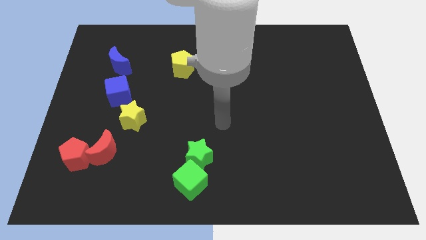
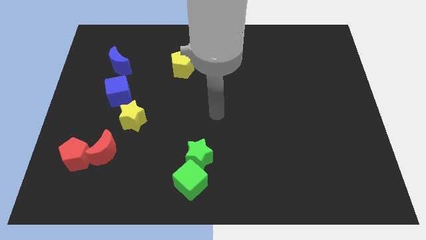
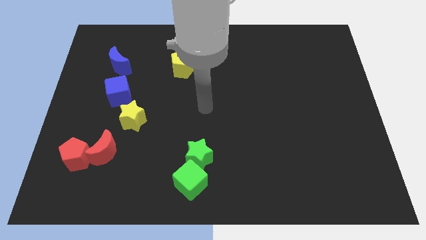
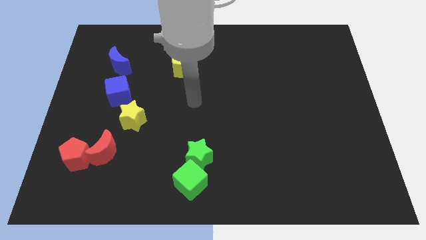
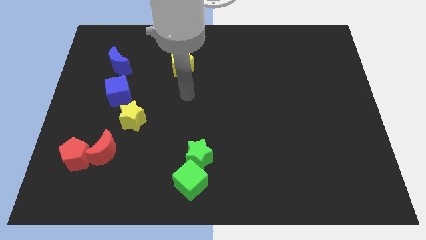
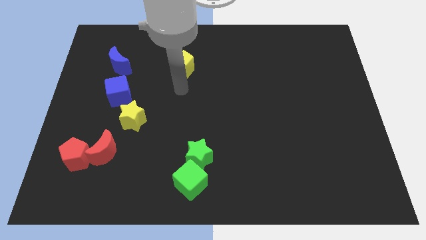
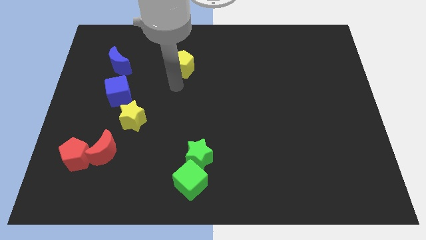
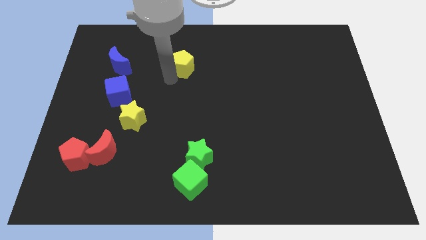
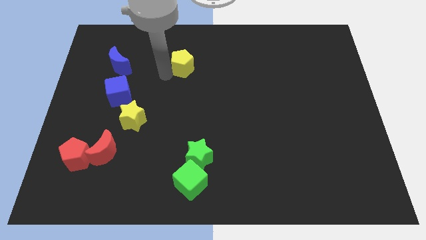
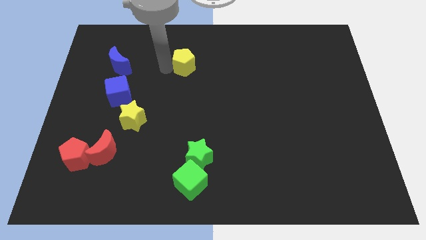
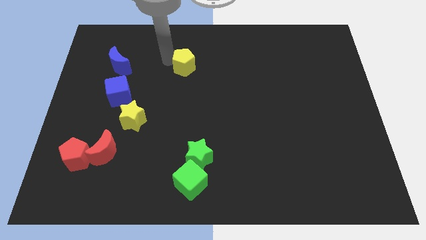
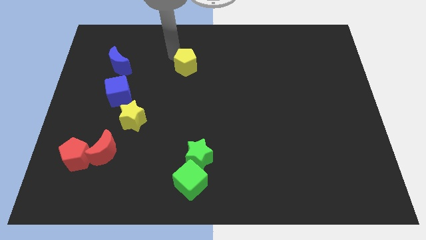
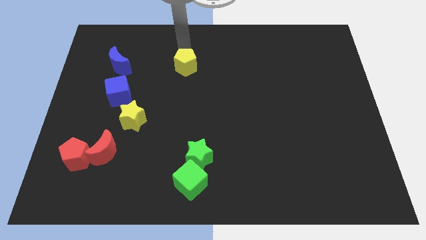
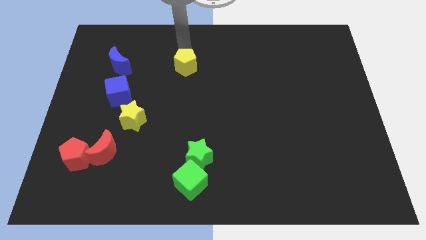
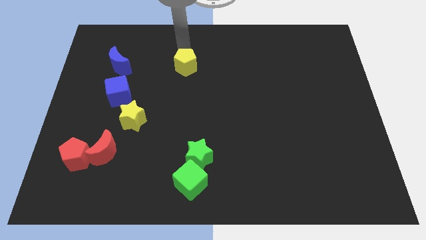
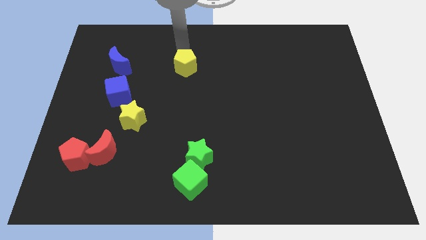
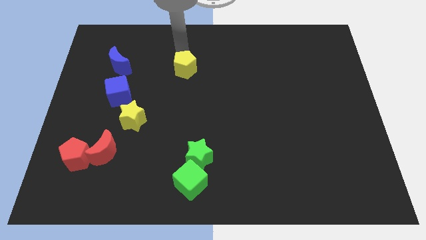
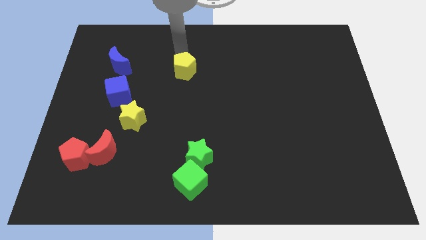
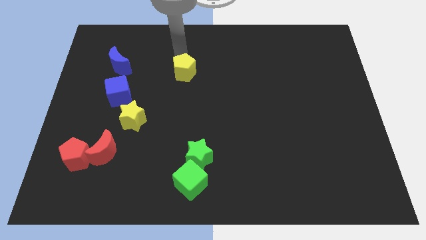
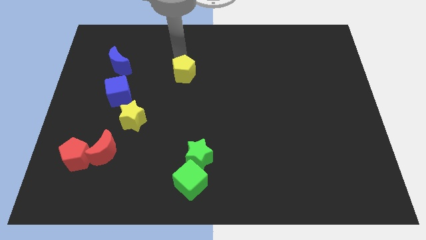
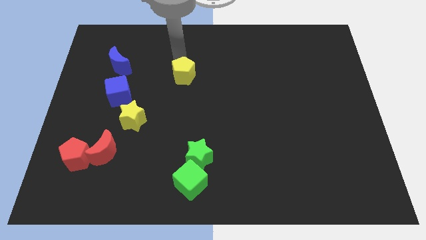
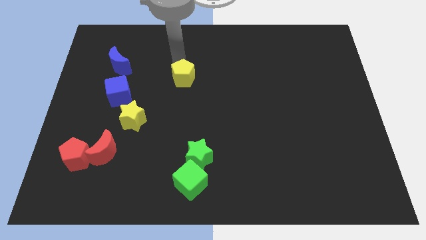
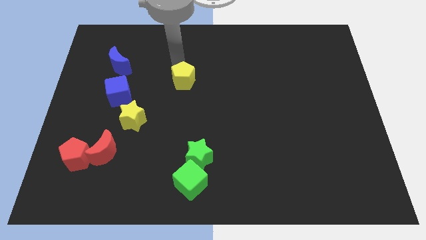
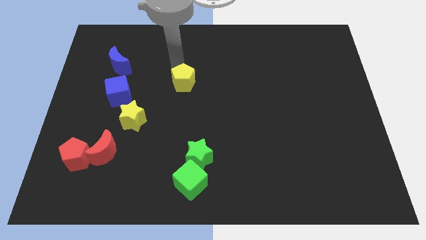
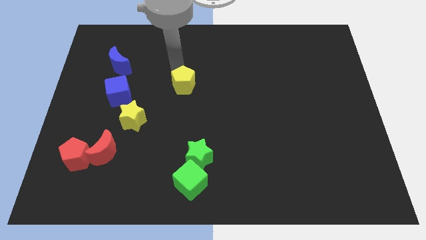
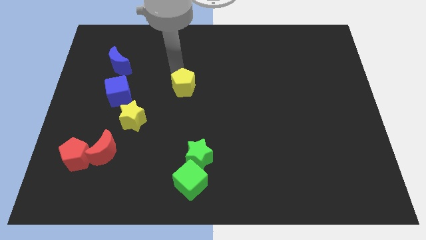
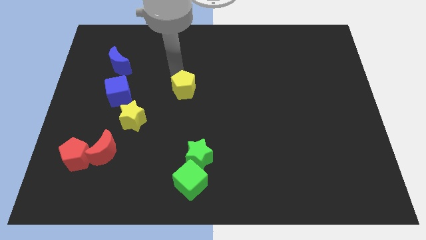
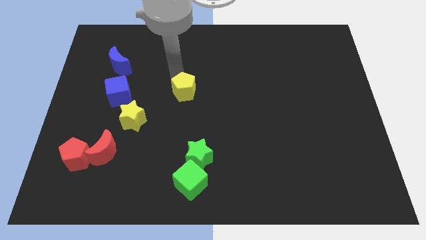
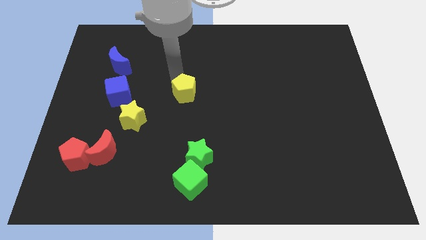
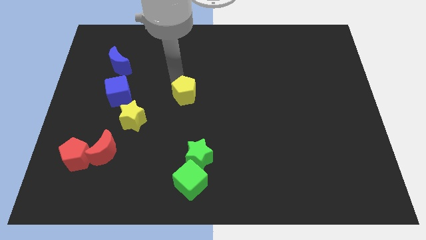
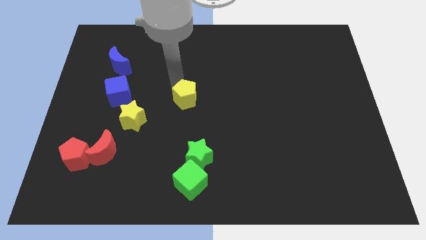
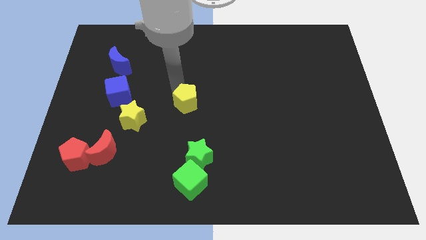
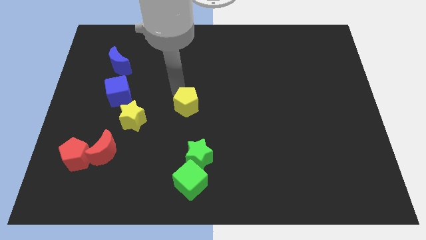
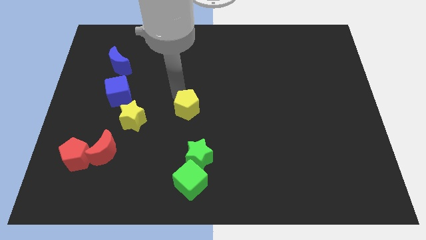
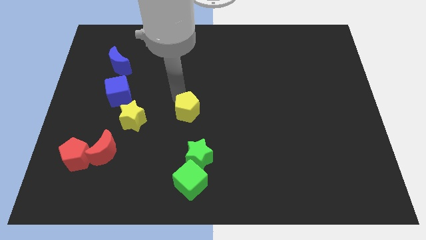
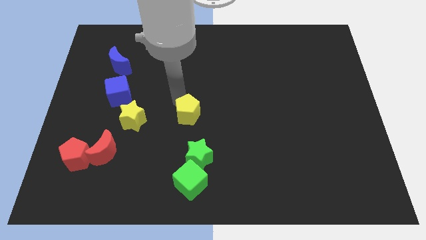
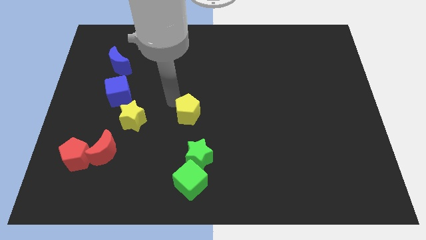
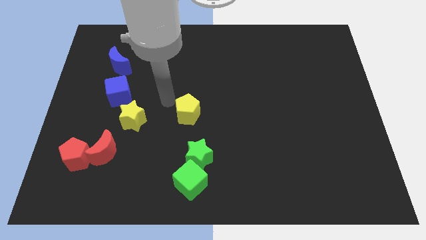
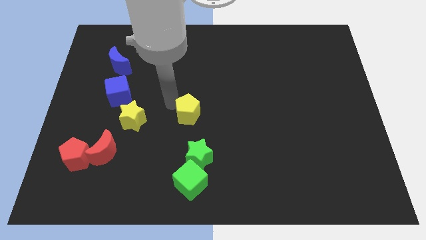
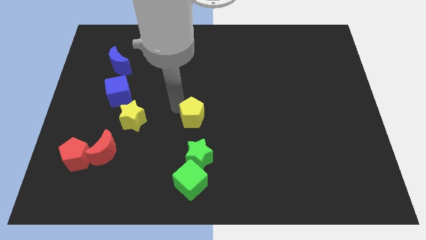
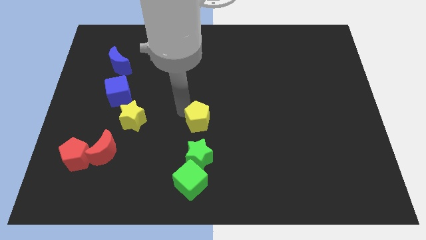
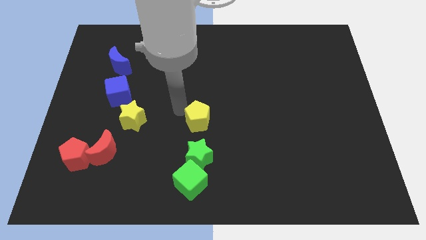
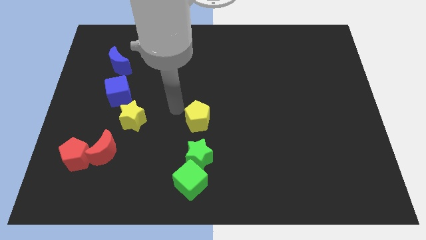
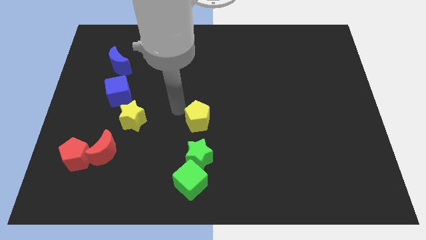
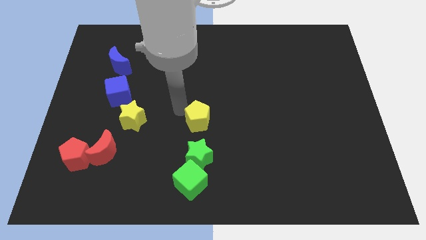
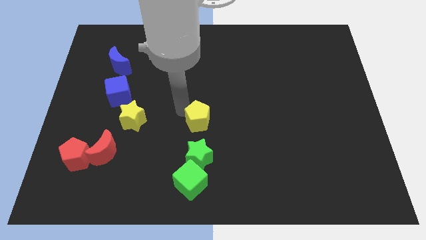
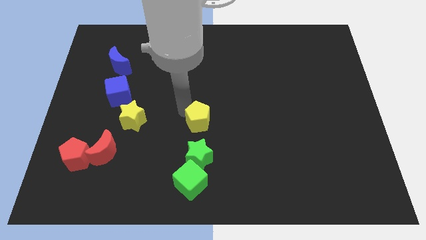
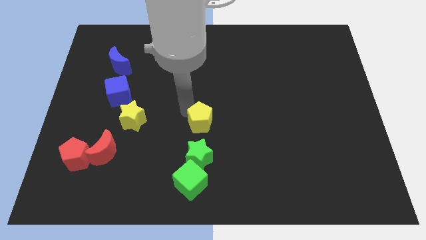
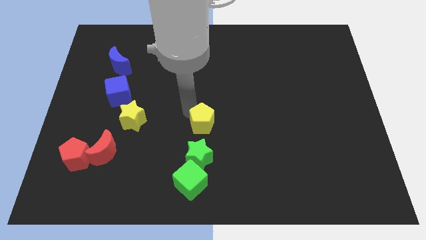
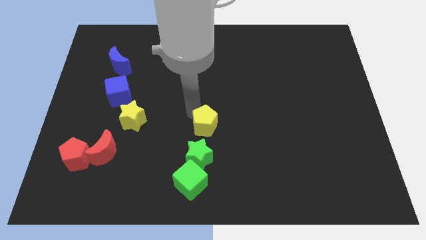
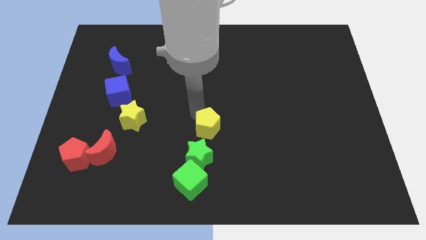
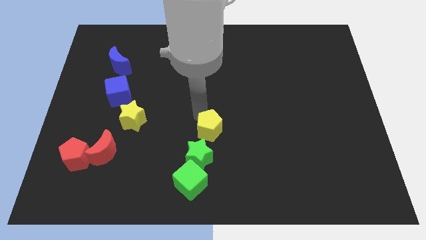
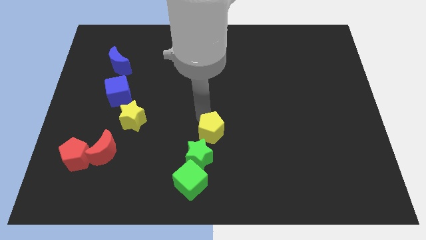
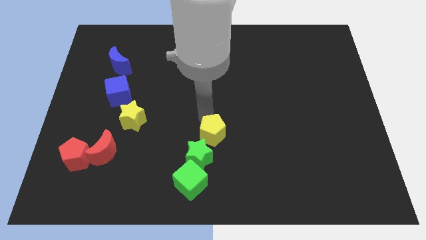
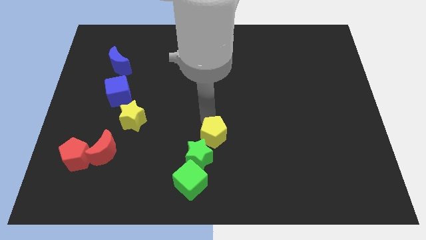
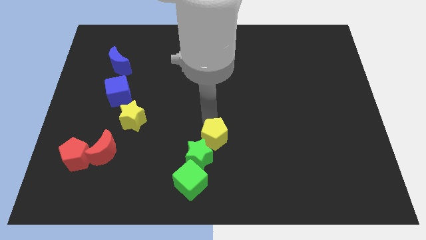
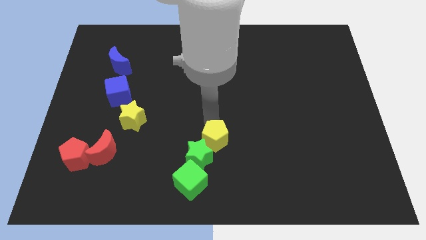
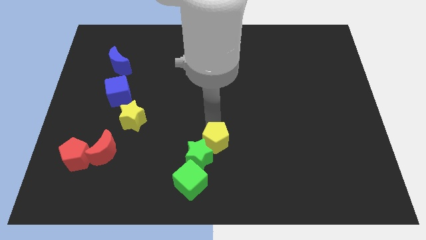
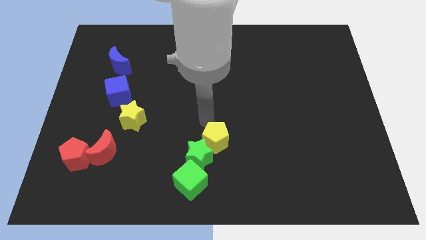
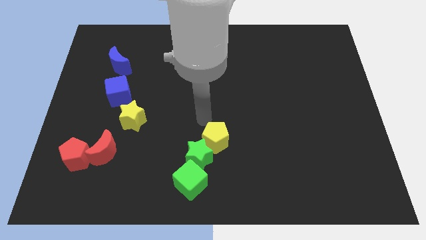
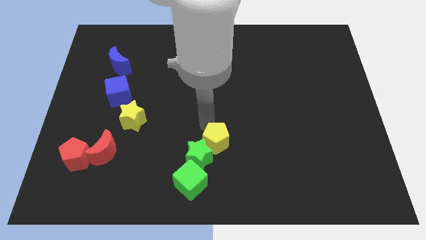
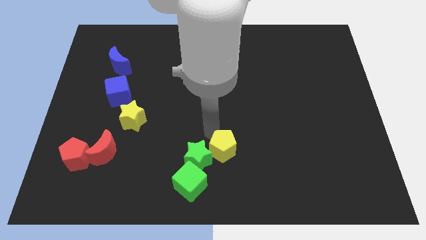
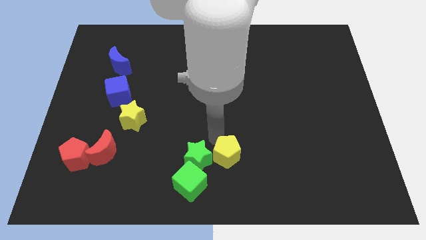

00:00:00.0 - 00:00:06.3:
push the yellow pentagon to the bottom side
